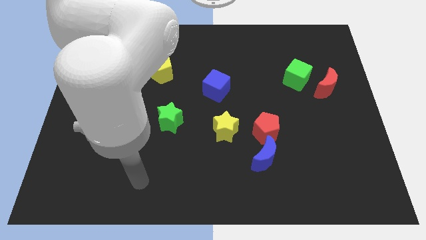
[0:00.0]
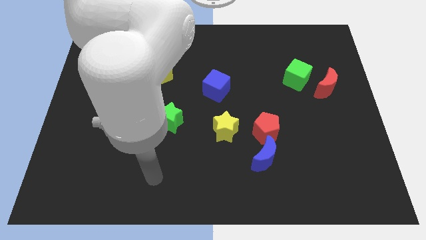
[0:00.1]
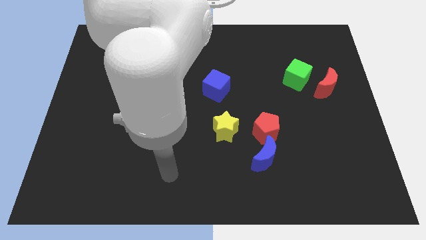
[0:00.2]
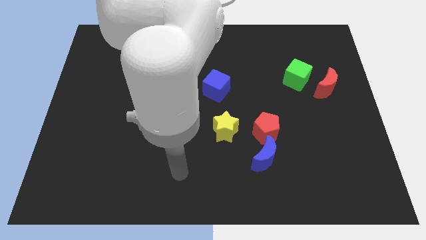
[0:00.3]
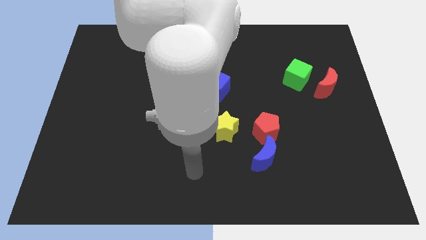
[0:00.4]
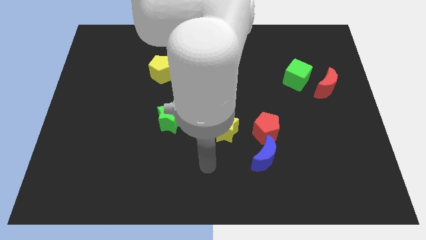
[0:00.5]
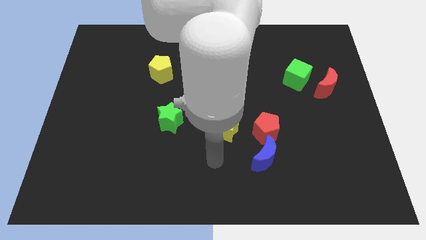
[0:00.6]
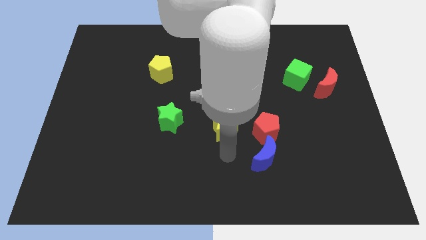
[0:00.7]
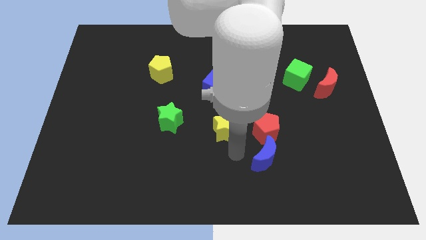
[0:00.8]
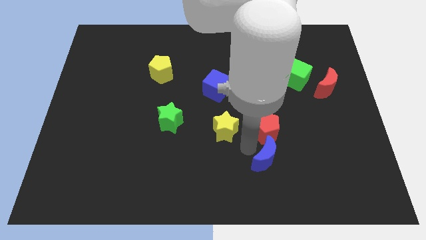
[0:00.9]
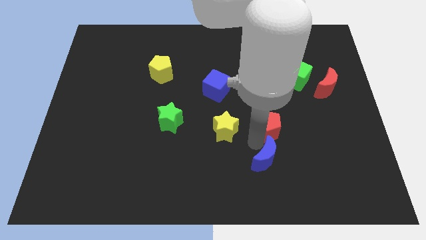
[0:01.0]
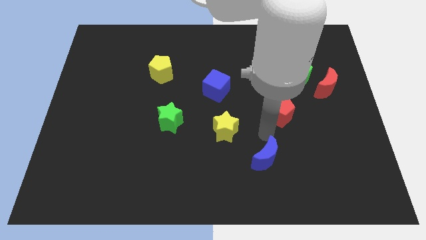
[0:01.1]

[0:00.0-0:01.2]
pull the blue moon apart from the red pentagon

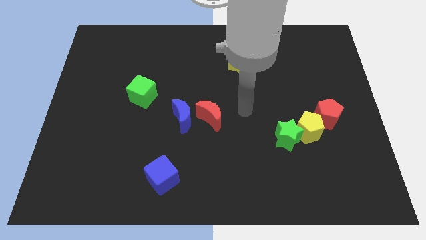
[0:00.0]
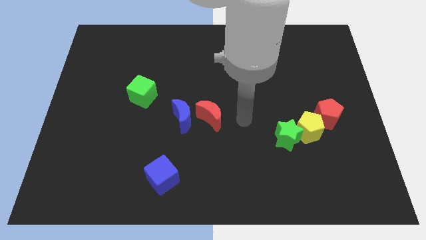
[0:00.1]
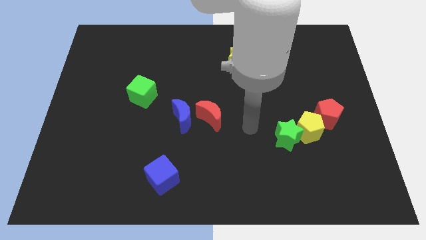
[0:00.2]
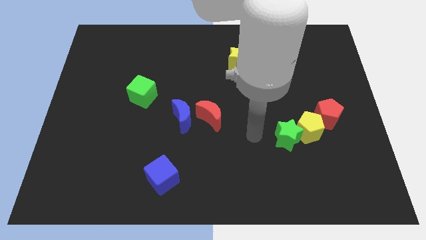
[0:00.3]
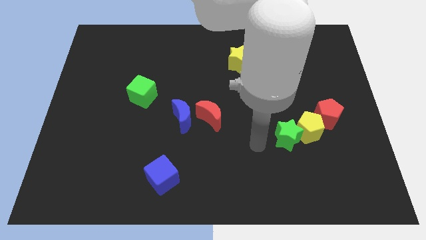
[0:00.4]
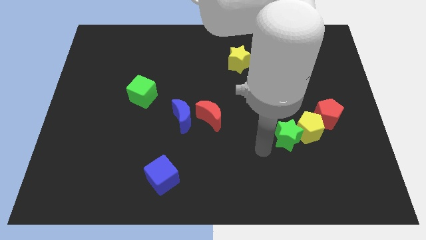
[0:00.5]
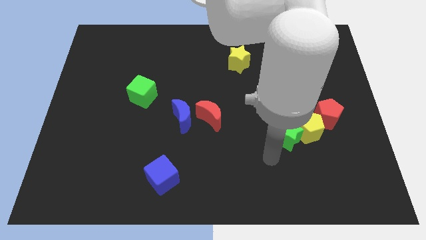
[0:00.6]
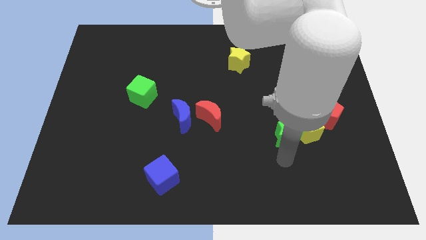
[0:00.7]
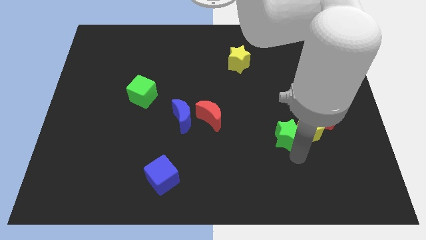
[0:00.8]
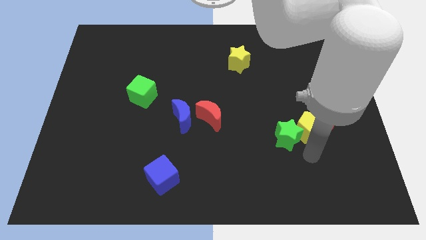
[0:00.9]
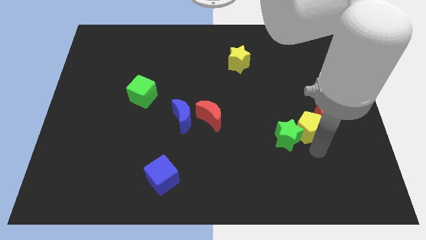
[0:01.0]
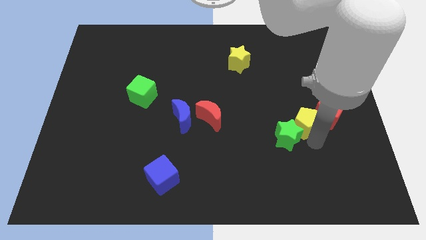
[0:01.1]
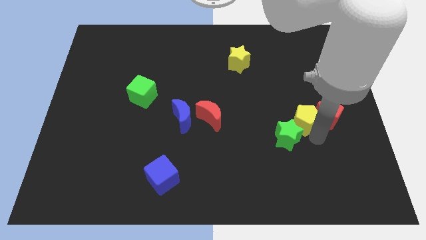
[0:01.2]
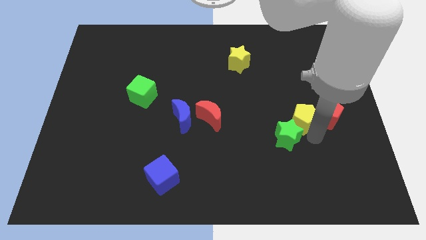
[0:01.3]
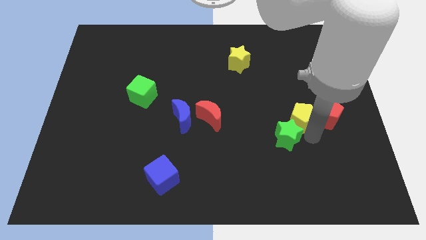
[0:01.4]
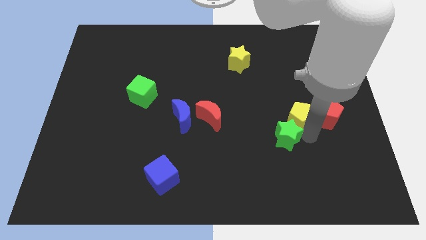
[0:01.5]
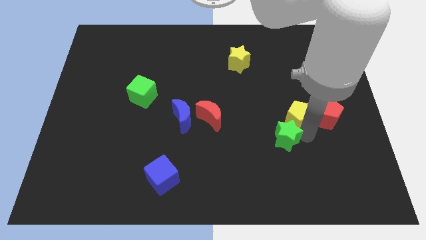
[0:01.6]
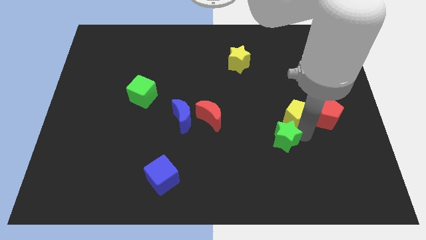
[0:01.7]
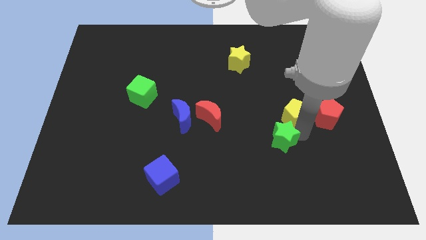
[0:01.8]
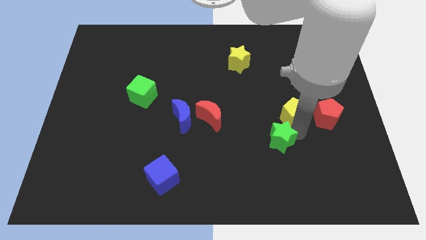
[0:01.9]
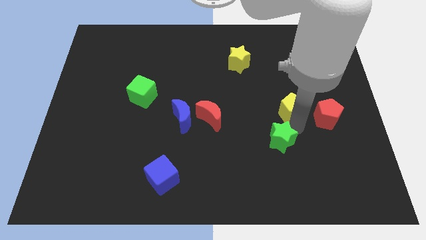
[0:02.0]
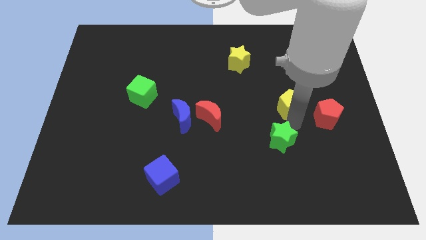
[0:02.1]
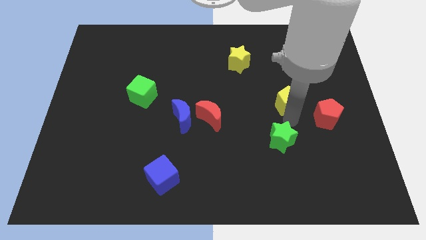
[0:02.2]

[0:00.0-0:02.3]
pull the green star apart from the yellow pentagon

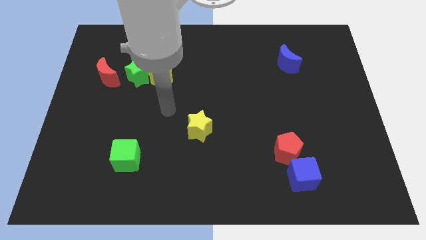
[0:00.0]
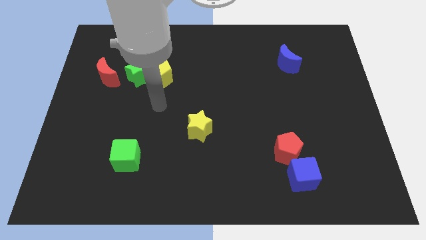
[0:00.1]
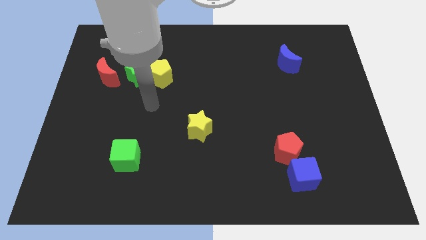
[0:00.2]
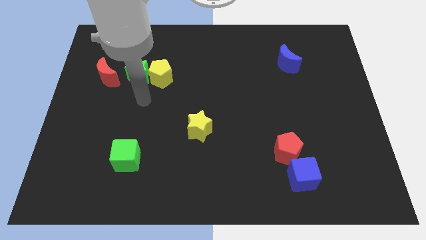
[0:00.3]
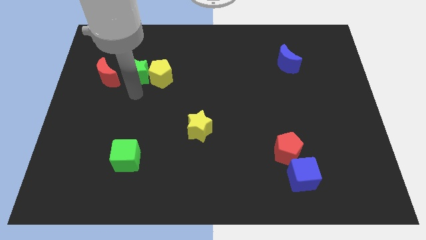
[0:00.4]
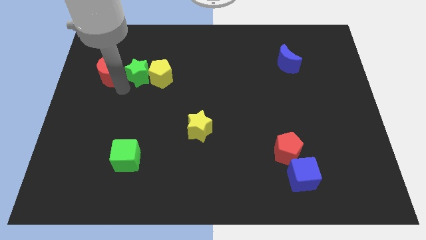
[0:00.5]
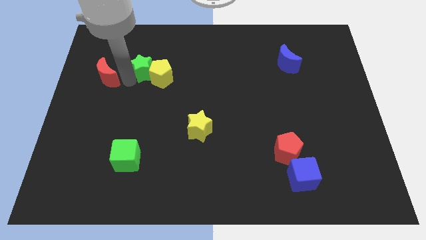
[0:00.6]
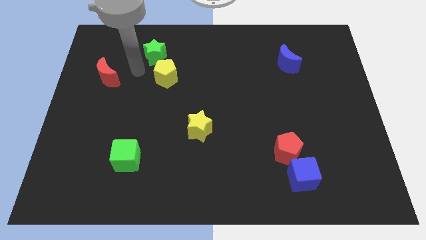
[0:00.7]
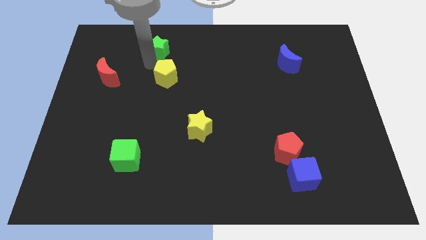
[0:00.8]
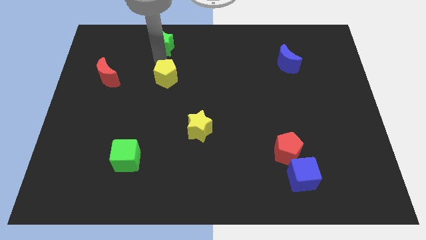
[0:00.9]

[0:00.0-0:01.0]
move the yellow pentagon away from the green star

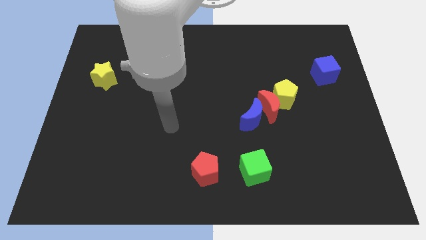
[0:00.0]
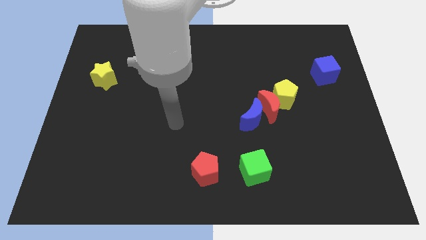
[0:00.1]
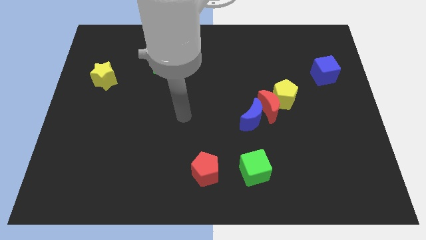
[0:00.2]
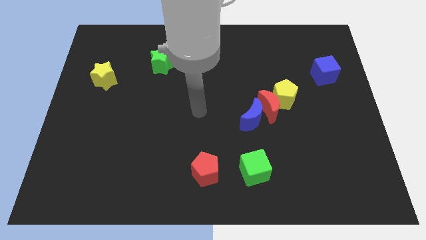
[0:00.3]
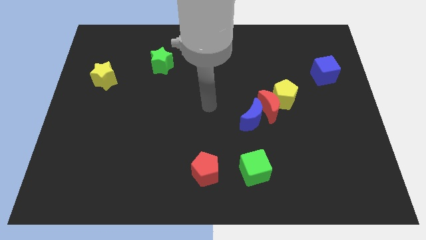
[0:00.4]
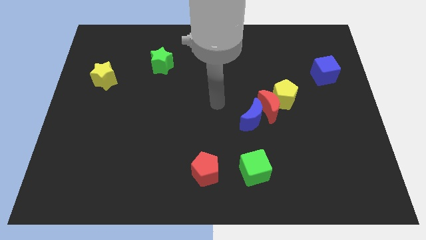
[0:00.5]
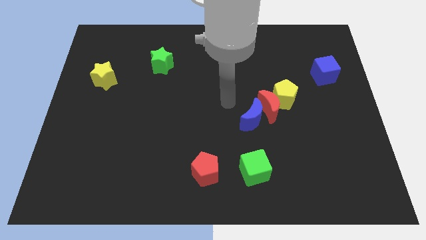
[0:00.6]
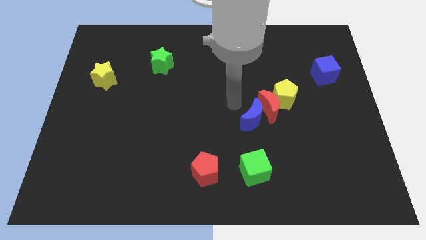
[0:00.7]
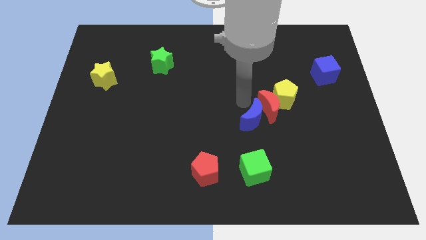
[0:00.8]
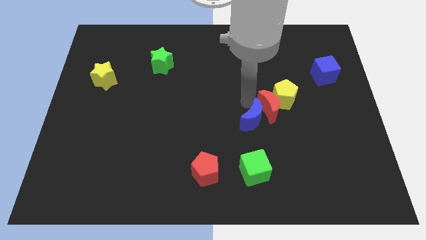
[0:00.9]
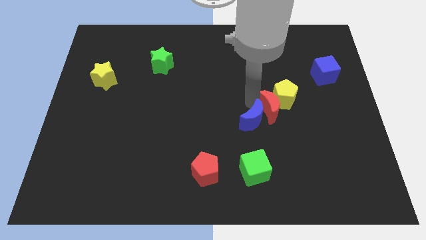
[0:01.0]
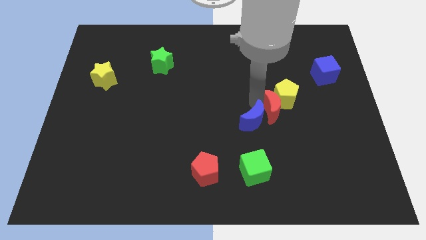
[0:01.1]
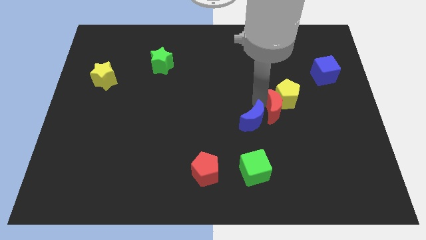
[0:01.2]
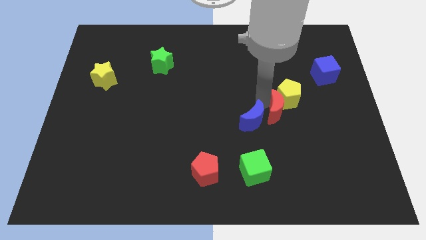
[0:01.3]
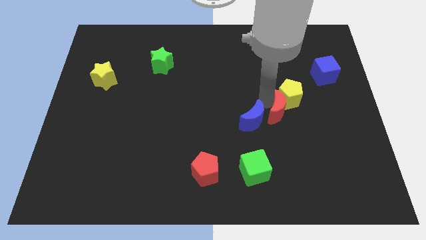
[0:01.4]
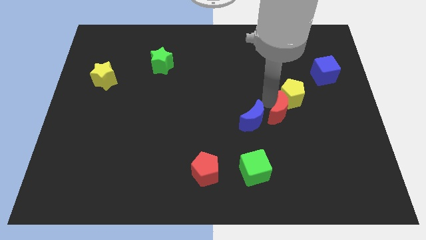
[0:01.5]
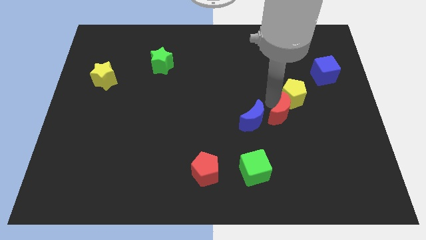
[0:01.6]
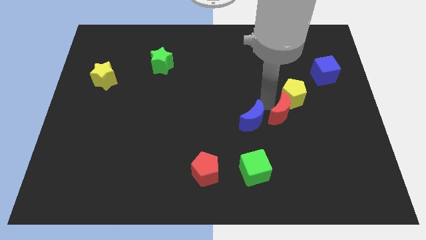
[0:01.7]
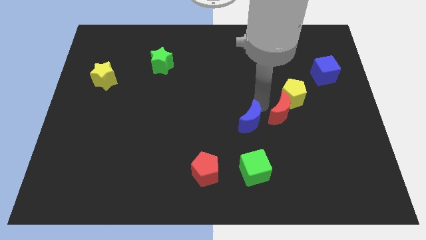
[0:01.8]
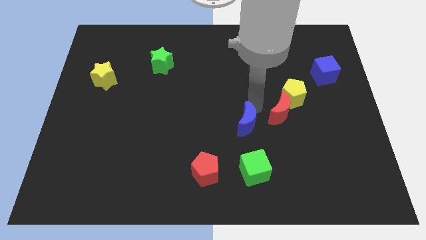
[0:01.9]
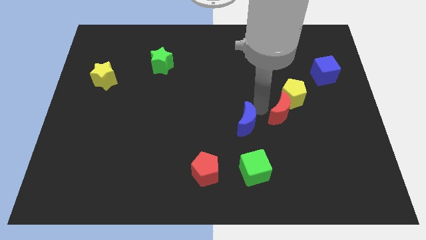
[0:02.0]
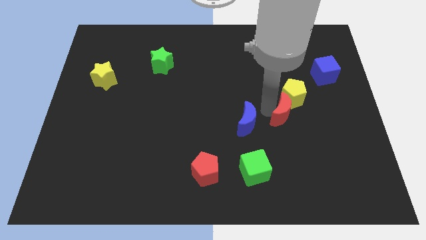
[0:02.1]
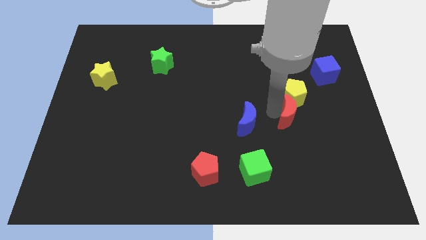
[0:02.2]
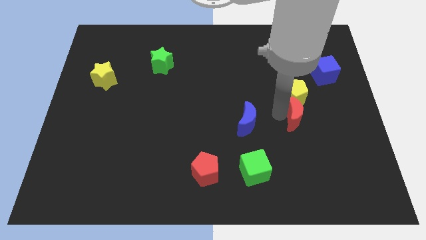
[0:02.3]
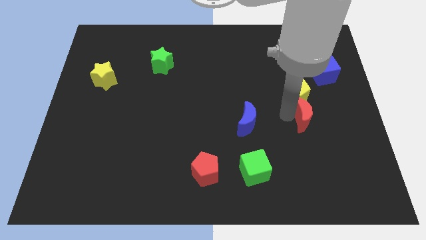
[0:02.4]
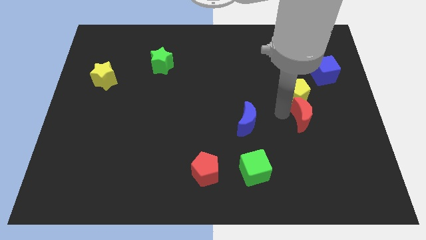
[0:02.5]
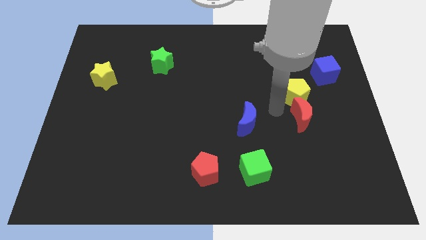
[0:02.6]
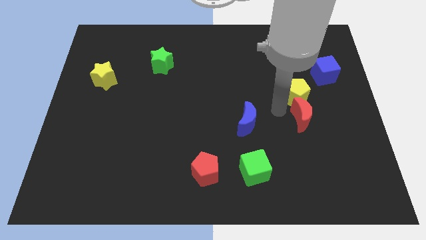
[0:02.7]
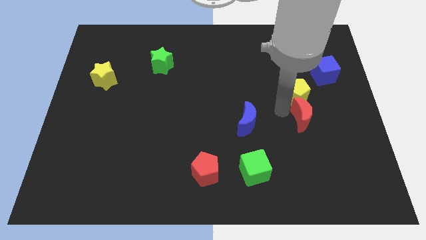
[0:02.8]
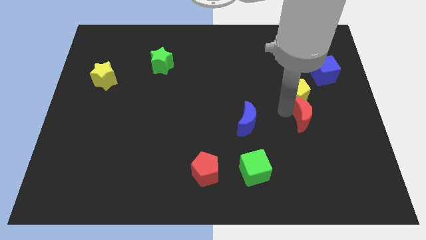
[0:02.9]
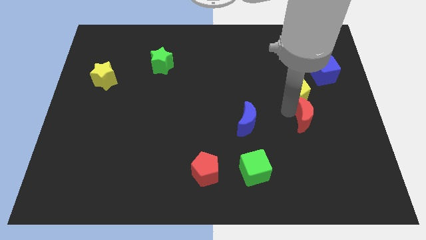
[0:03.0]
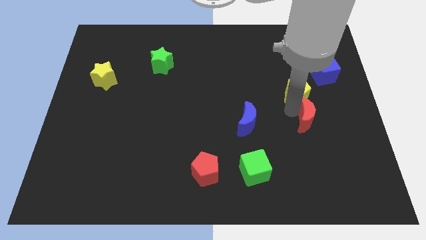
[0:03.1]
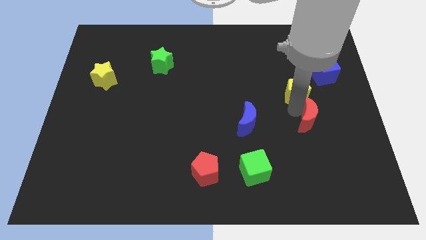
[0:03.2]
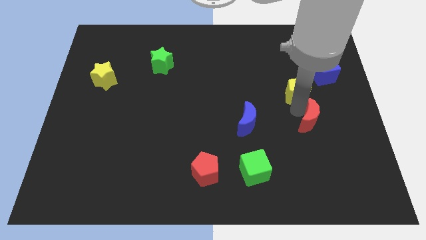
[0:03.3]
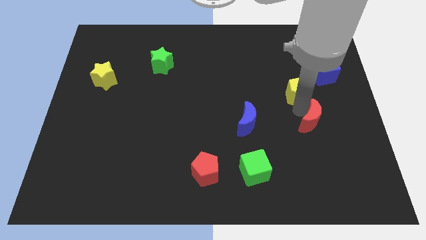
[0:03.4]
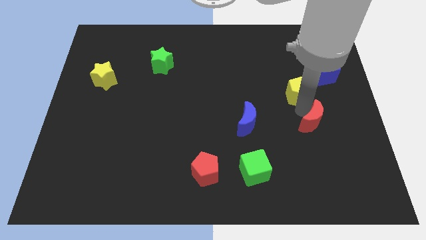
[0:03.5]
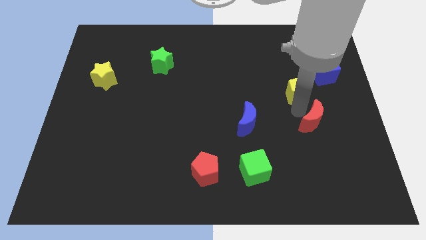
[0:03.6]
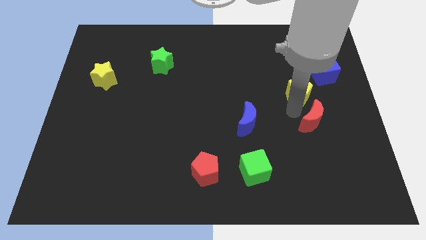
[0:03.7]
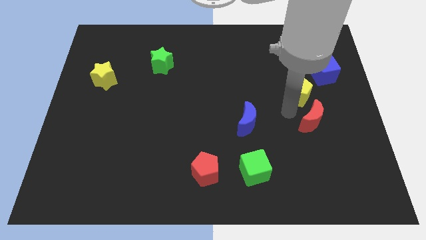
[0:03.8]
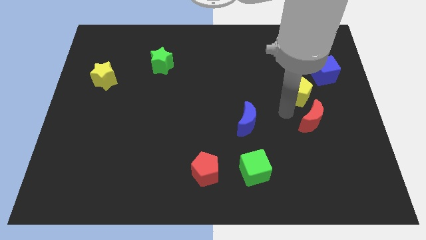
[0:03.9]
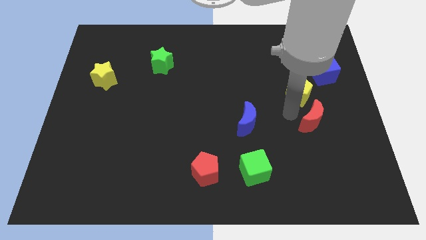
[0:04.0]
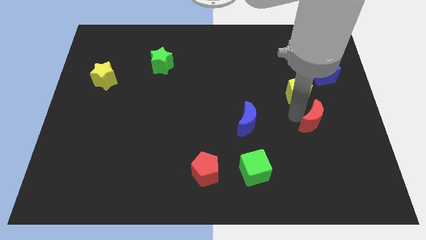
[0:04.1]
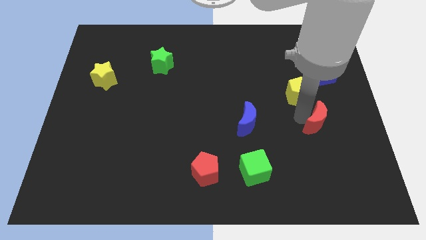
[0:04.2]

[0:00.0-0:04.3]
pull the red moon apart from the yellow pentagon and blue moon

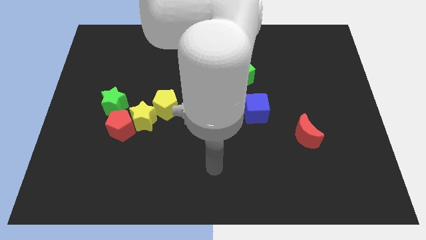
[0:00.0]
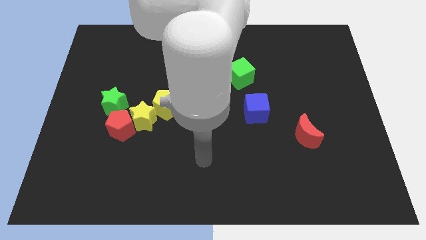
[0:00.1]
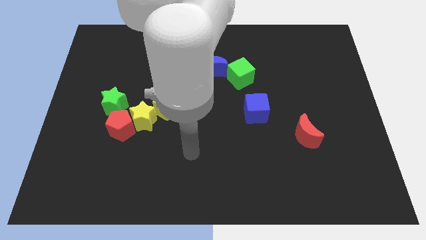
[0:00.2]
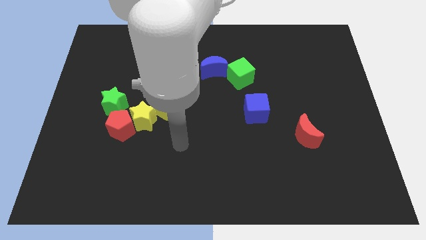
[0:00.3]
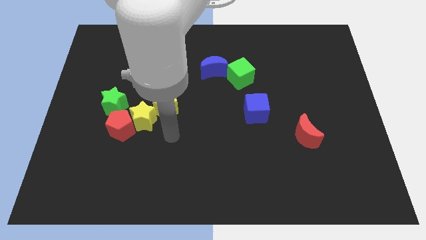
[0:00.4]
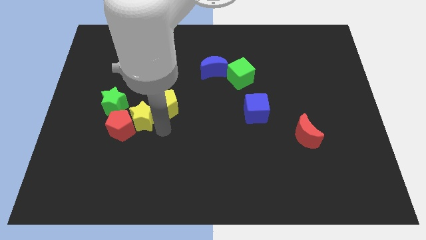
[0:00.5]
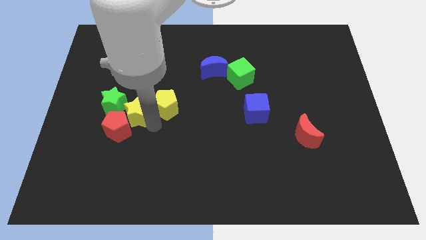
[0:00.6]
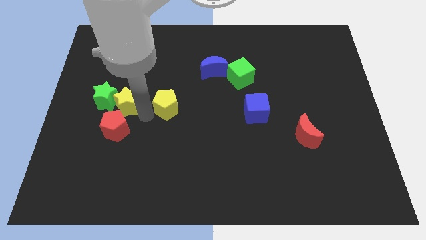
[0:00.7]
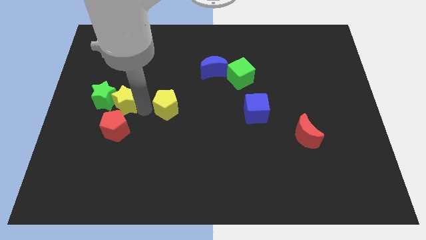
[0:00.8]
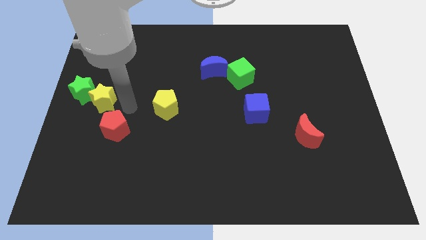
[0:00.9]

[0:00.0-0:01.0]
pull the red pentagon apart from the yellow star and green star
